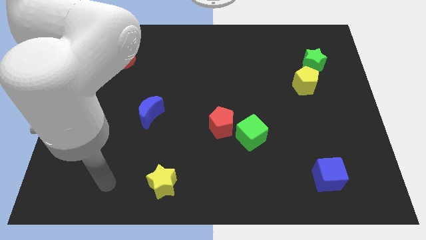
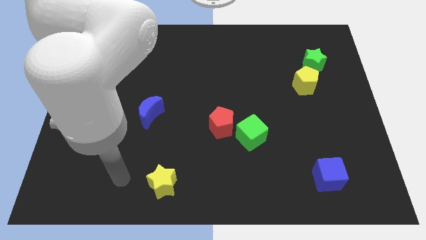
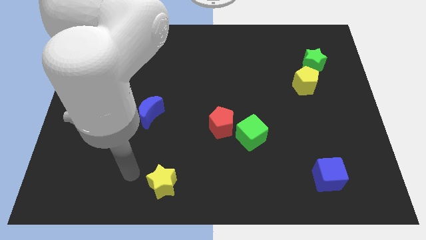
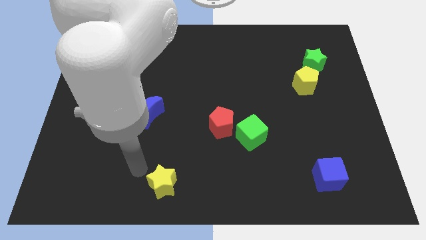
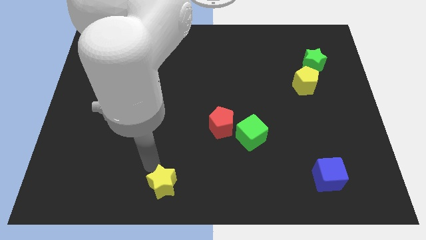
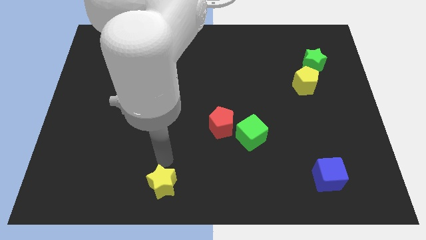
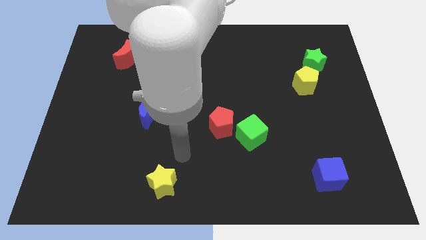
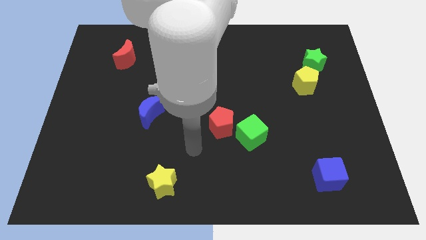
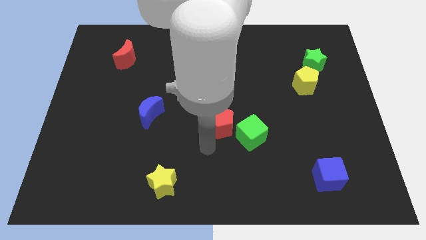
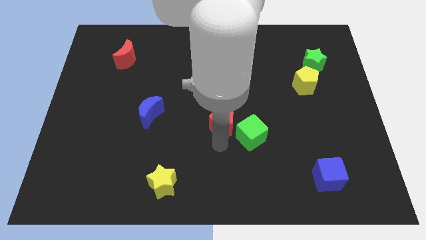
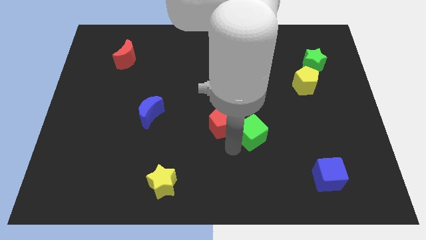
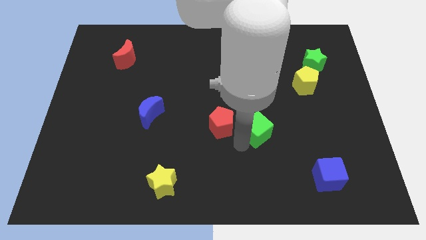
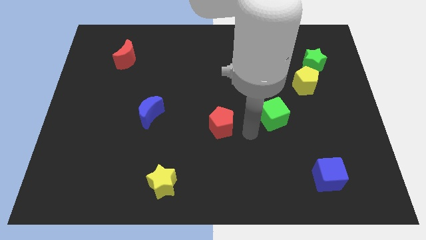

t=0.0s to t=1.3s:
pull the red pentagon apart from the green cube

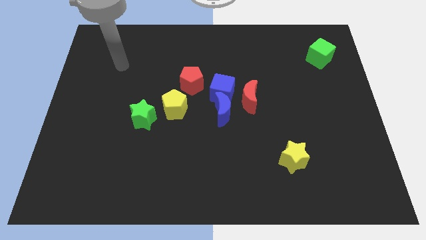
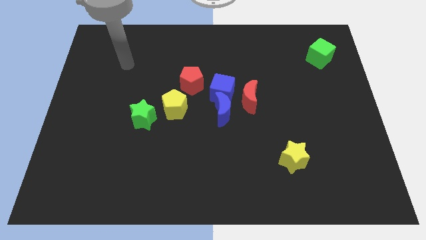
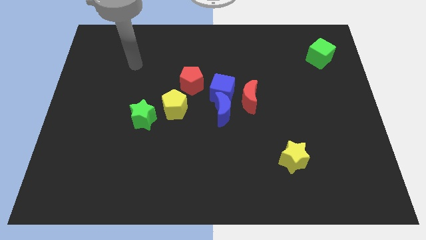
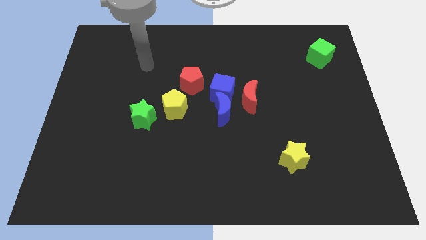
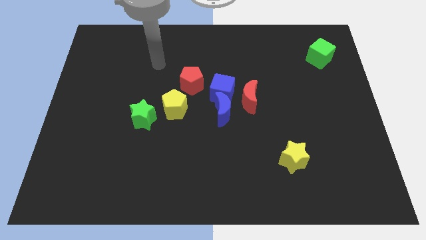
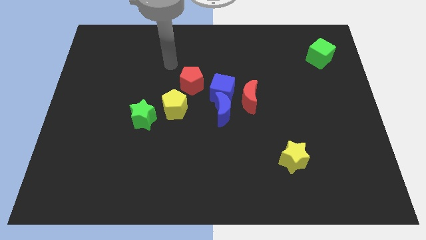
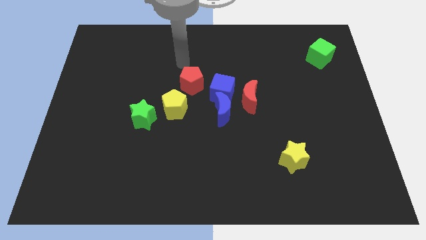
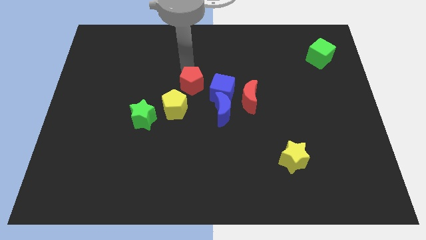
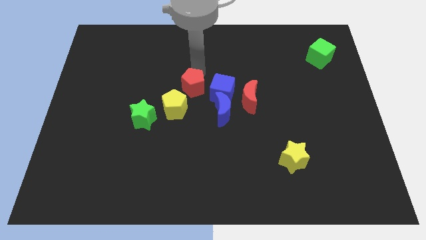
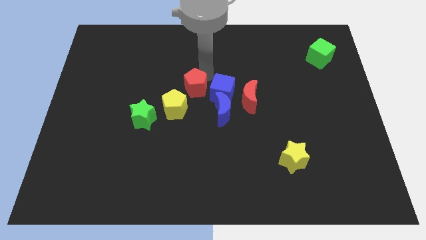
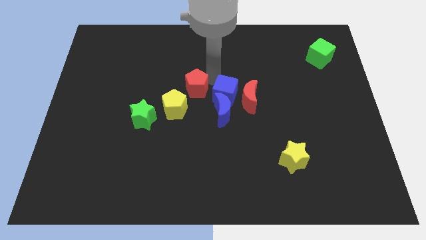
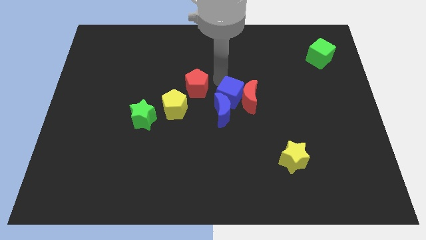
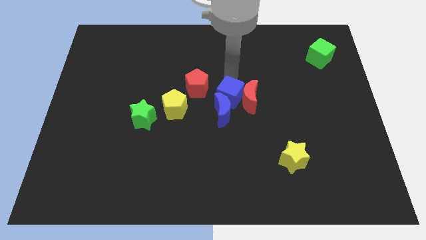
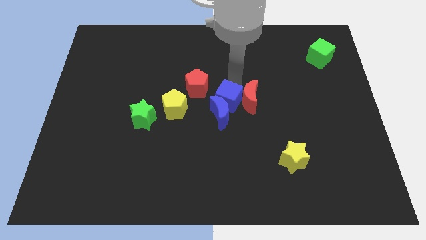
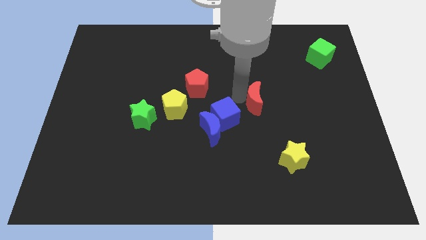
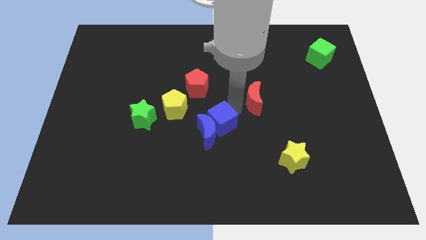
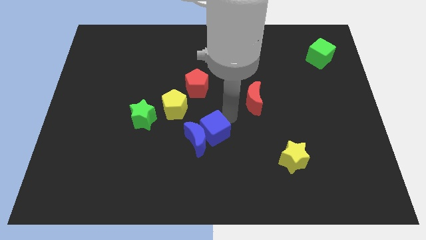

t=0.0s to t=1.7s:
separate the blue moon from the blue cube and red moon

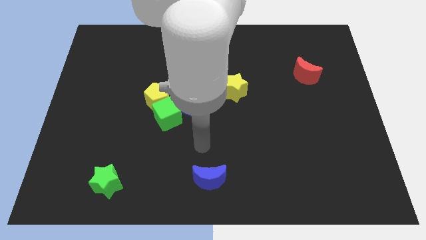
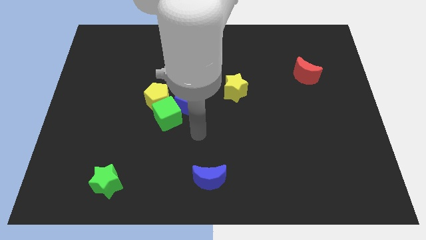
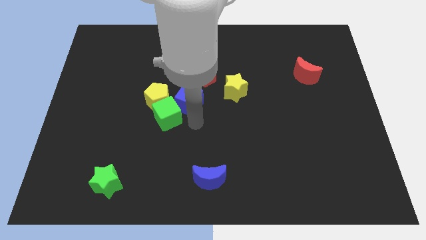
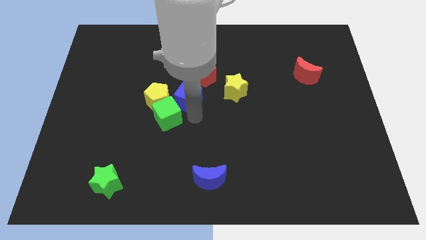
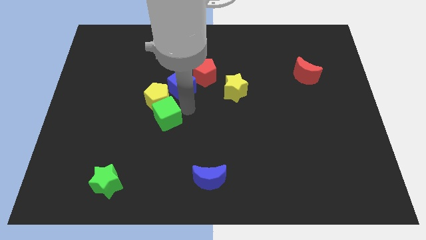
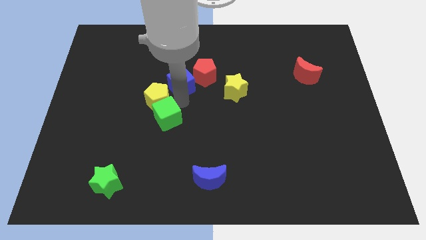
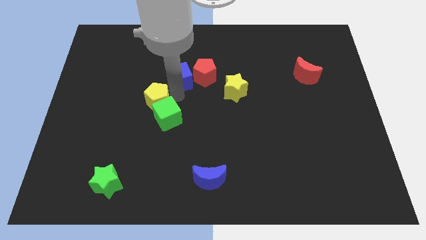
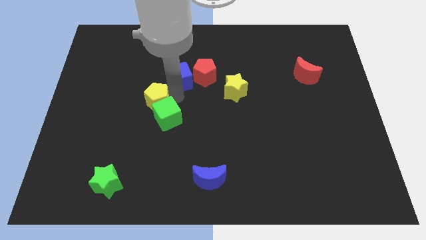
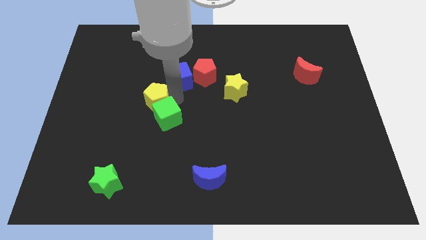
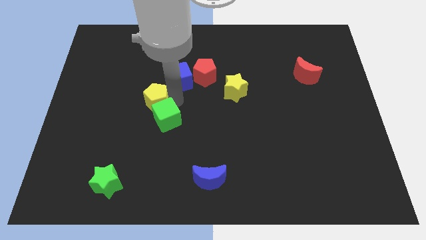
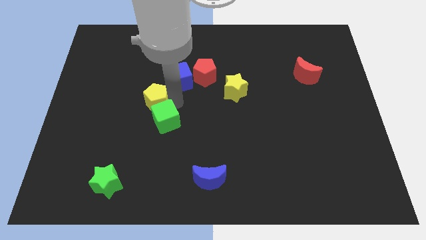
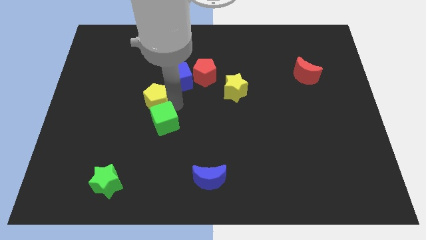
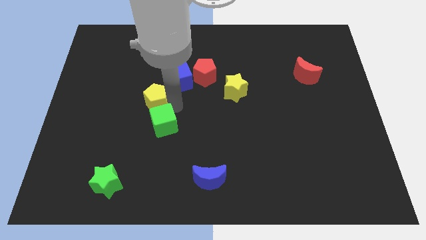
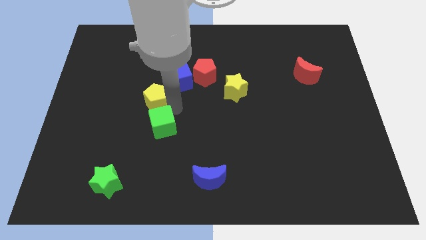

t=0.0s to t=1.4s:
move the green cube away from the yellow pentagon and blue cube

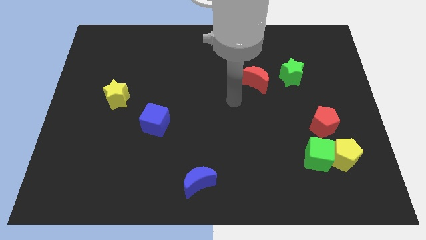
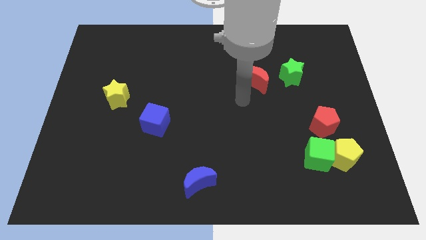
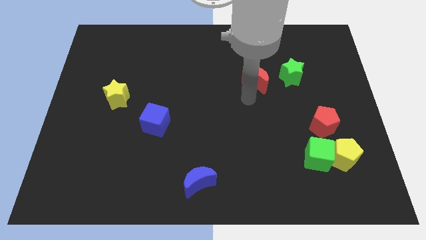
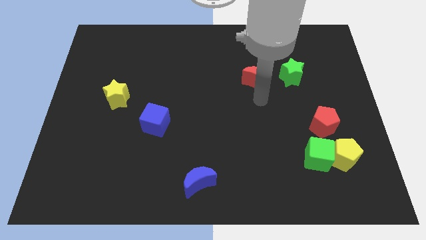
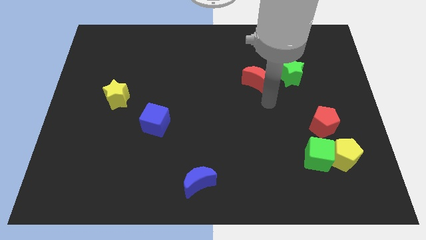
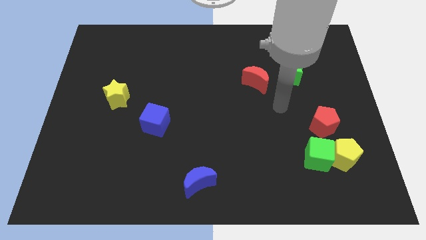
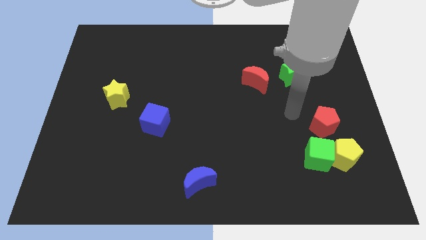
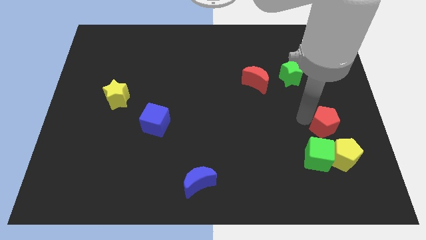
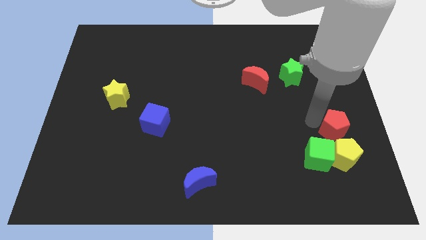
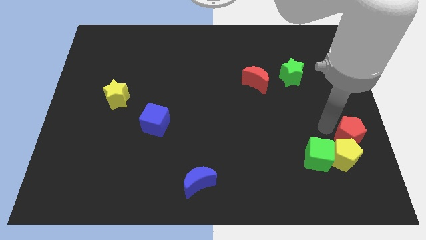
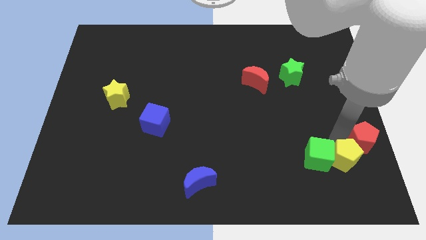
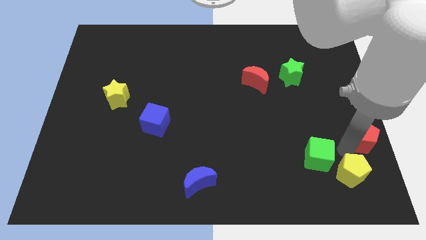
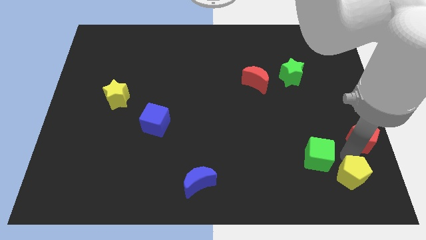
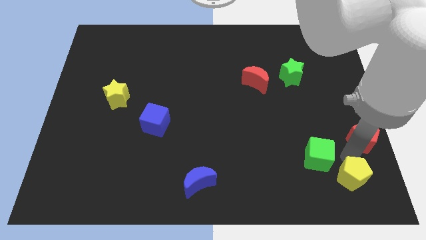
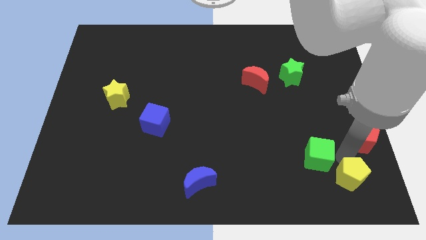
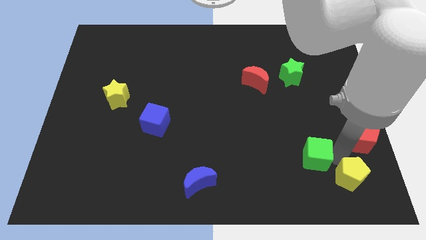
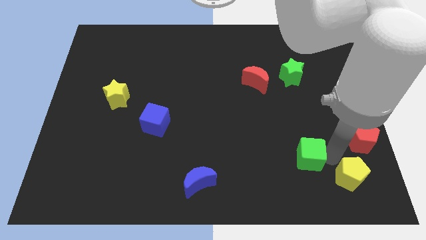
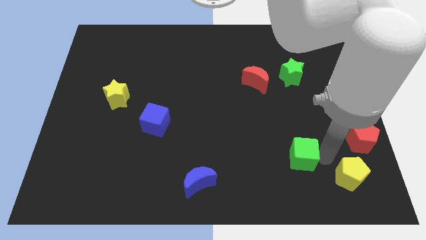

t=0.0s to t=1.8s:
pull the green cube apart from the yellow pentagon and red pentagon

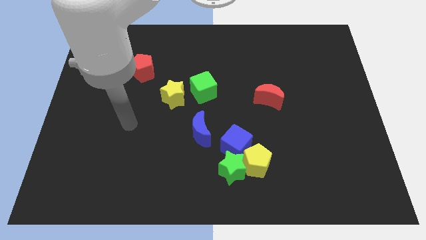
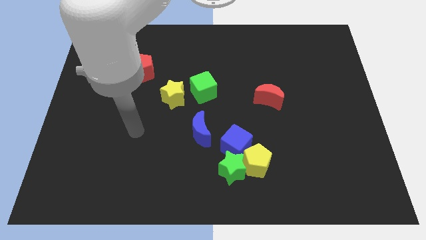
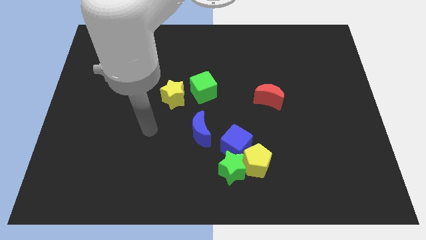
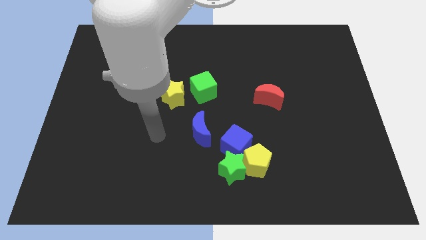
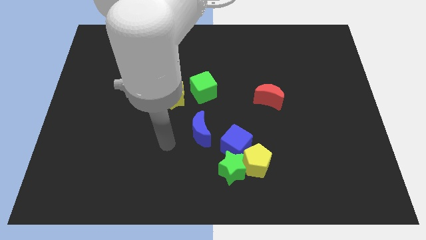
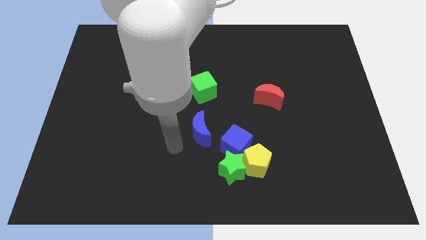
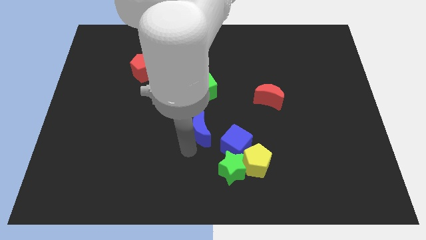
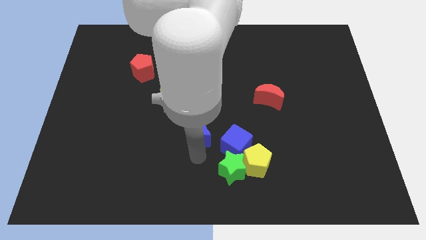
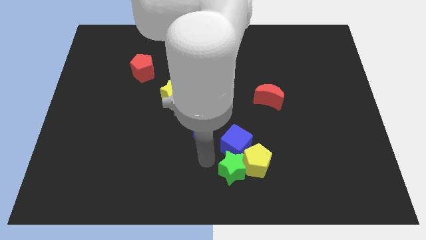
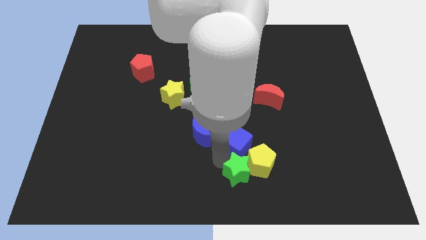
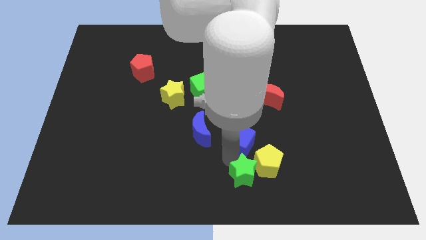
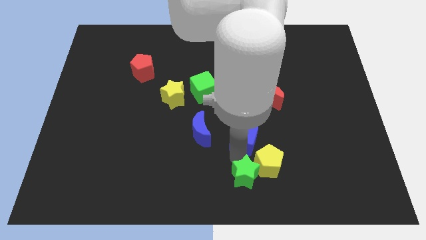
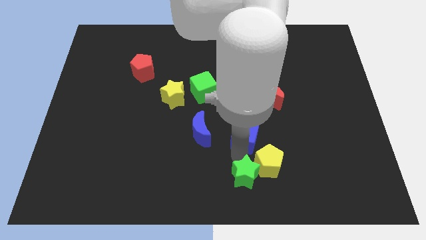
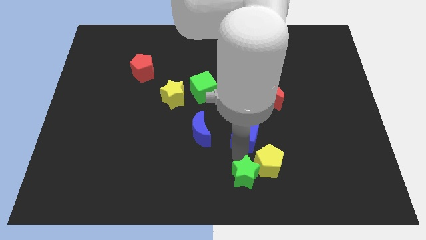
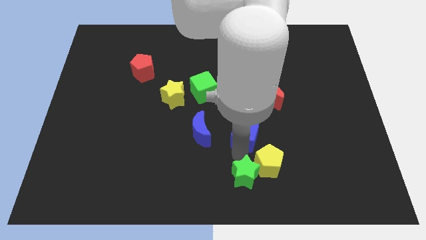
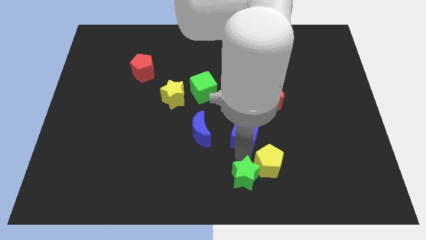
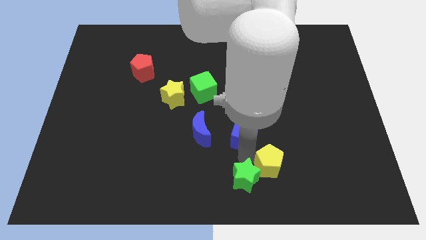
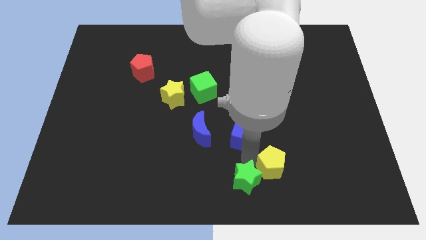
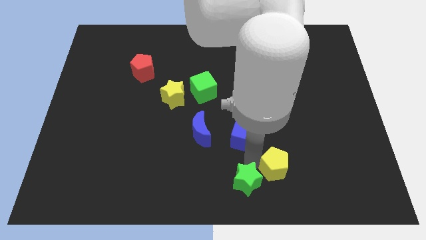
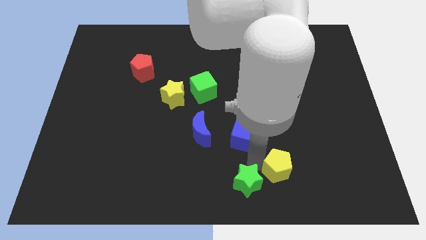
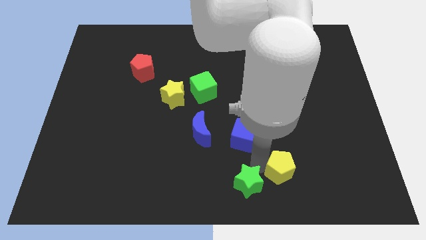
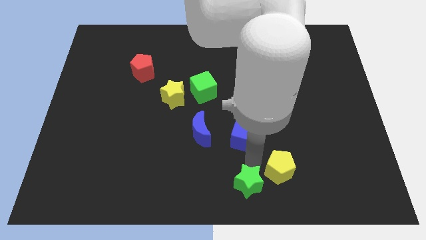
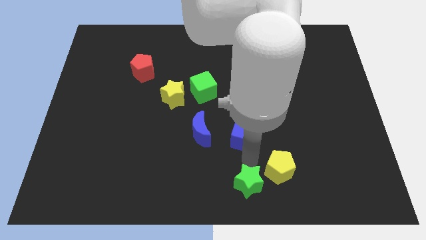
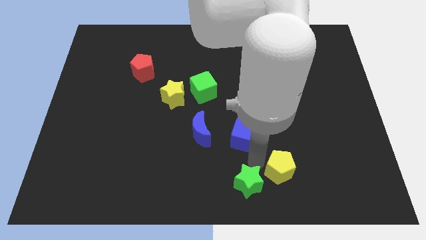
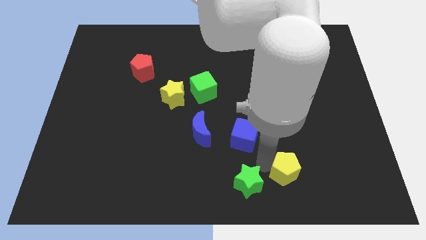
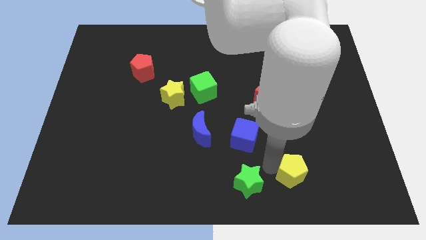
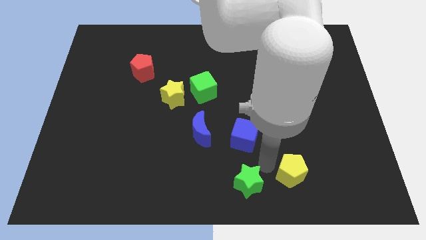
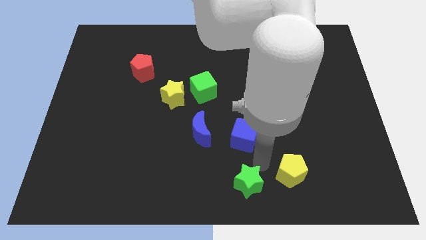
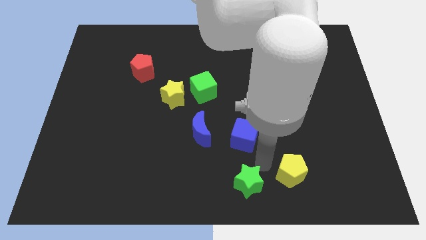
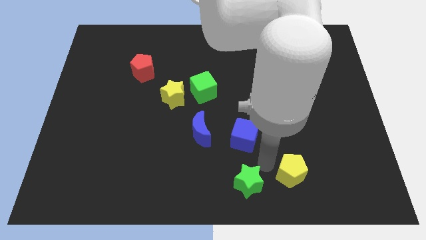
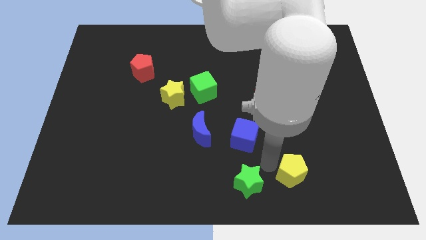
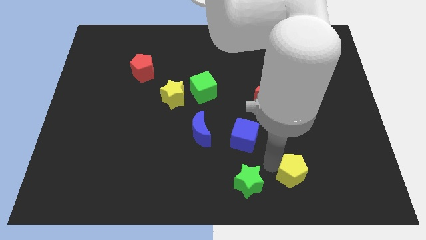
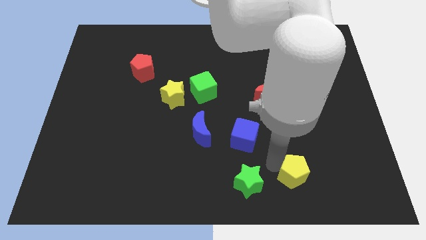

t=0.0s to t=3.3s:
pull the yellow pentagon apart from the green star and blue cube
